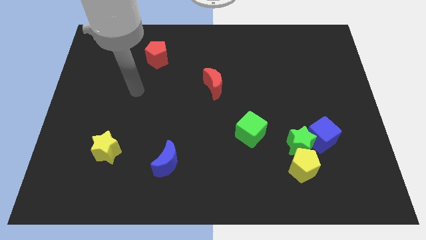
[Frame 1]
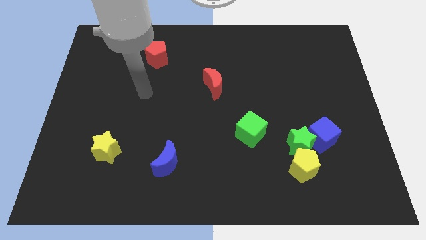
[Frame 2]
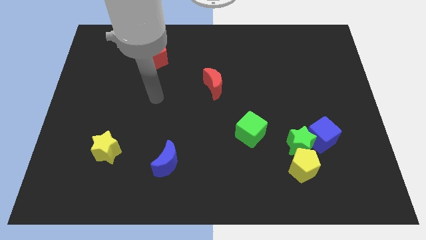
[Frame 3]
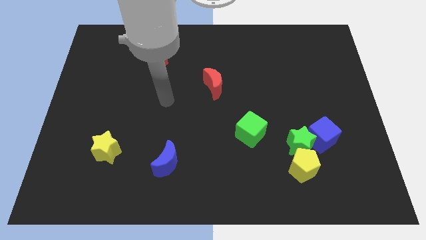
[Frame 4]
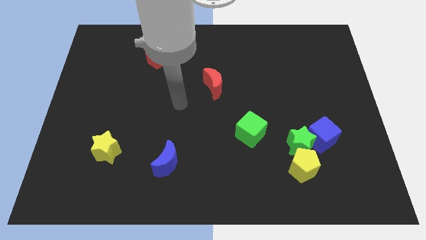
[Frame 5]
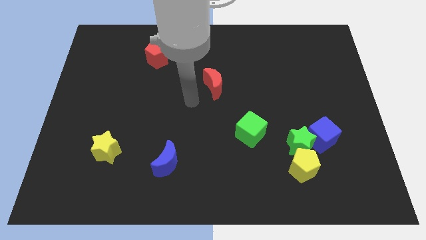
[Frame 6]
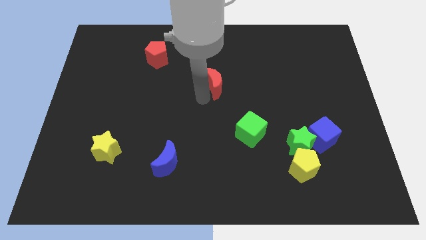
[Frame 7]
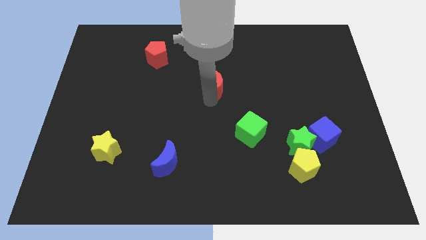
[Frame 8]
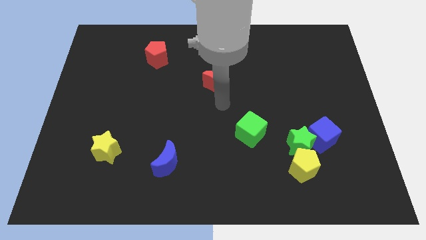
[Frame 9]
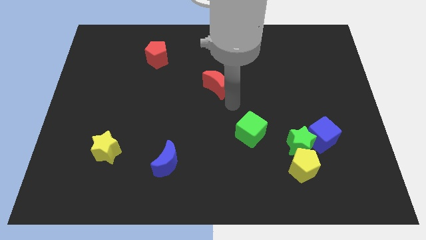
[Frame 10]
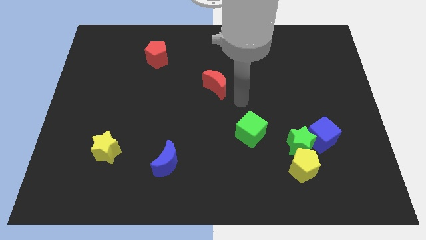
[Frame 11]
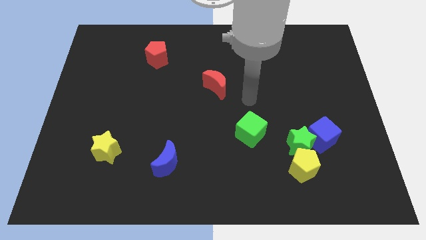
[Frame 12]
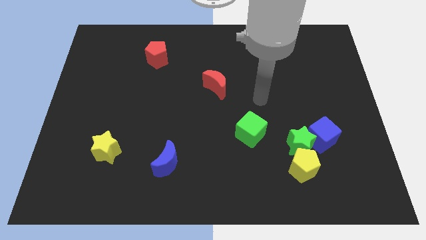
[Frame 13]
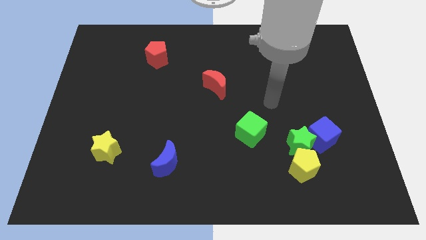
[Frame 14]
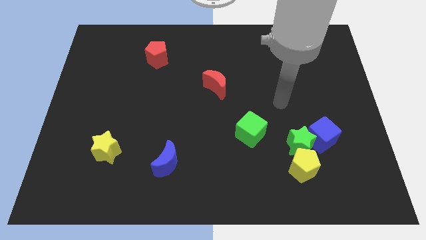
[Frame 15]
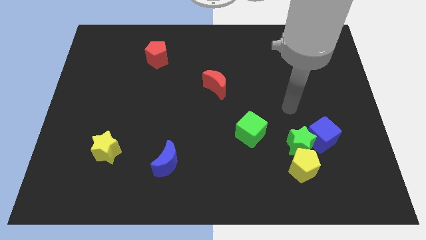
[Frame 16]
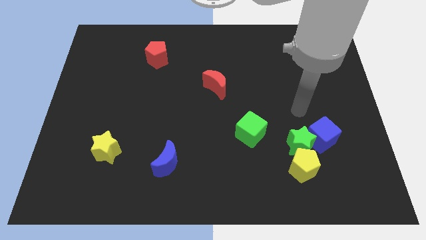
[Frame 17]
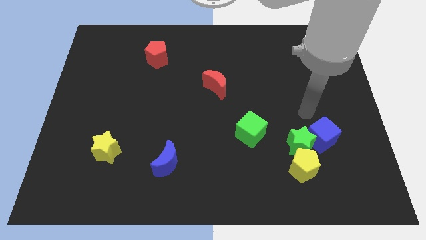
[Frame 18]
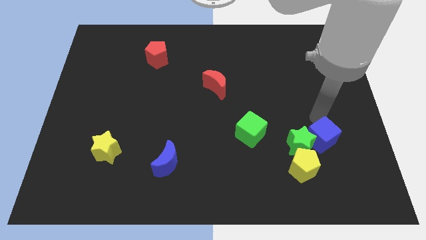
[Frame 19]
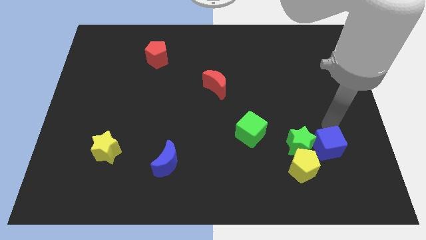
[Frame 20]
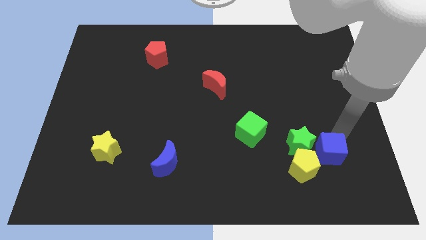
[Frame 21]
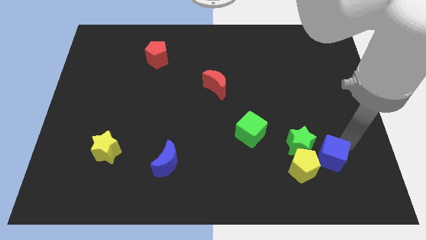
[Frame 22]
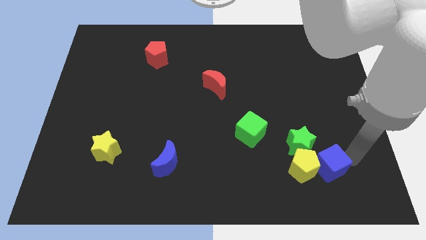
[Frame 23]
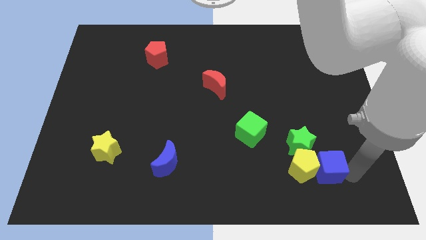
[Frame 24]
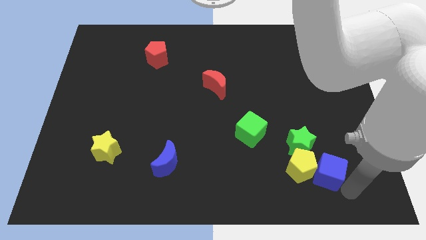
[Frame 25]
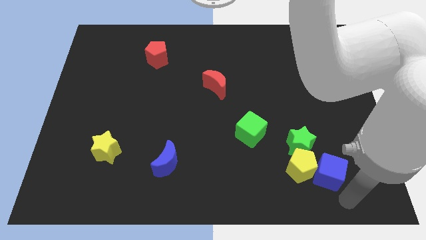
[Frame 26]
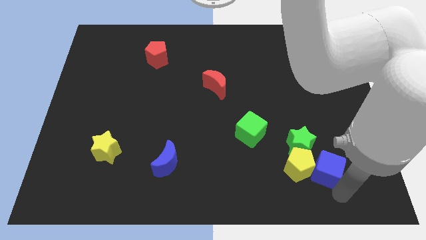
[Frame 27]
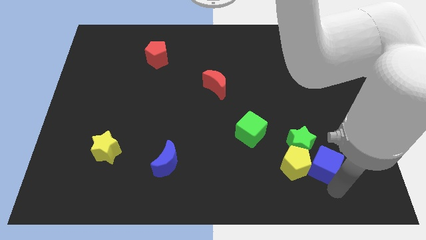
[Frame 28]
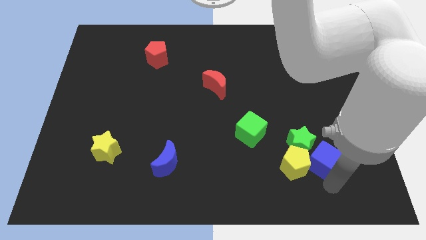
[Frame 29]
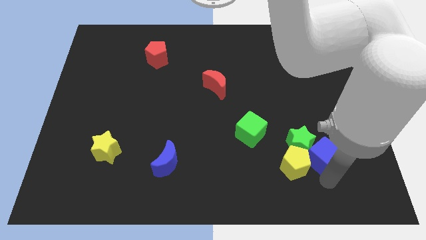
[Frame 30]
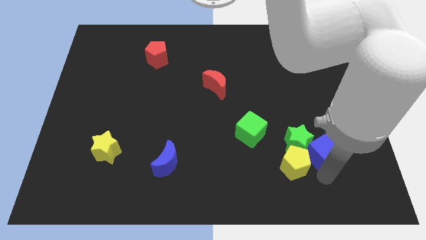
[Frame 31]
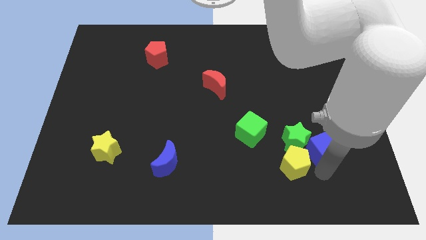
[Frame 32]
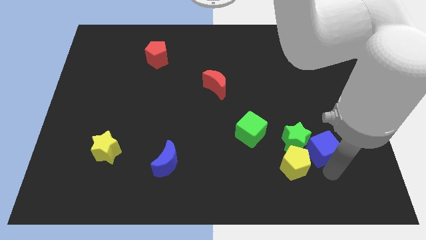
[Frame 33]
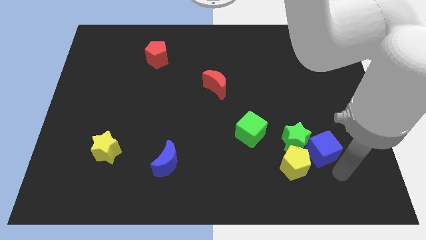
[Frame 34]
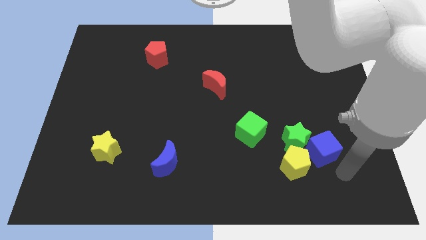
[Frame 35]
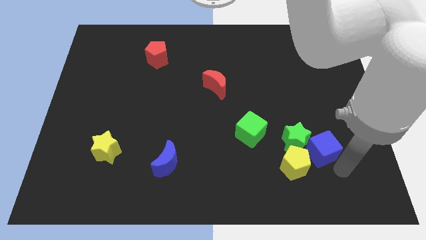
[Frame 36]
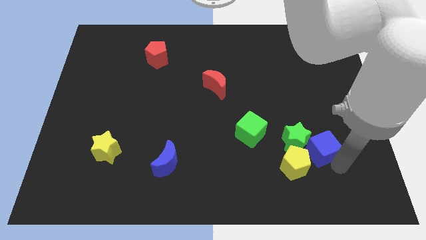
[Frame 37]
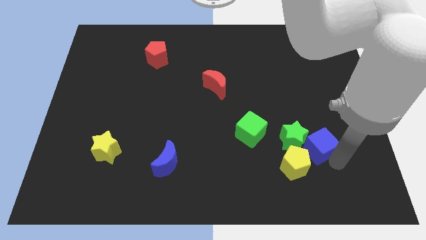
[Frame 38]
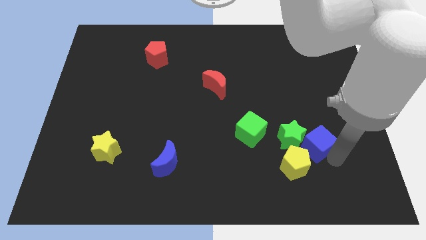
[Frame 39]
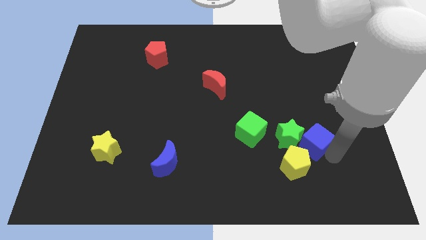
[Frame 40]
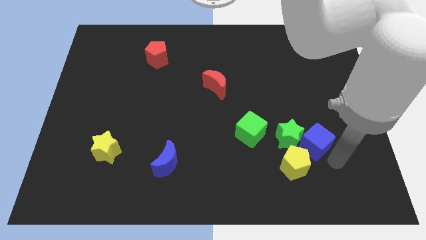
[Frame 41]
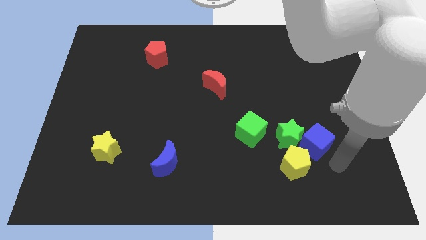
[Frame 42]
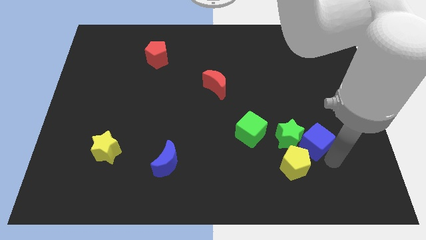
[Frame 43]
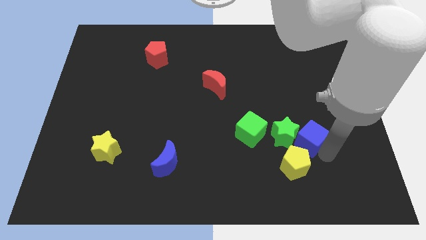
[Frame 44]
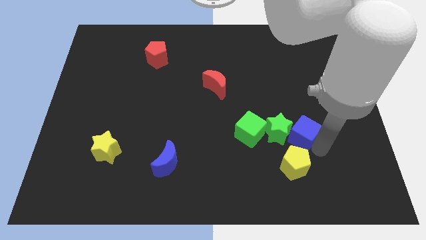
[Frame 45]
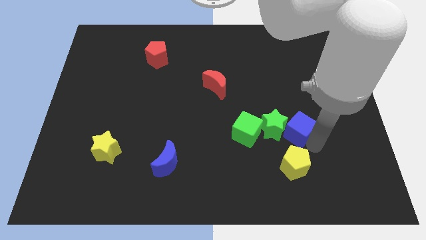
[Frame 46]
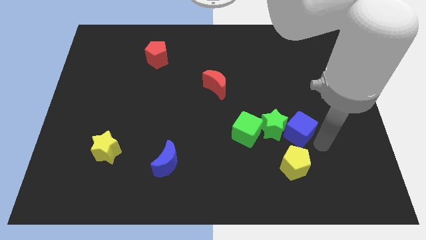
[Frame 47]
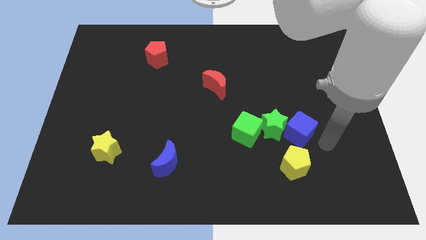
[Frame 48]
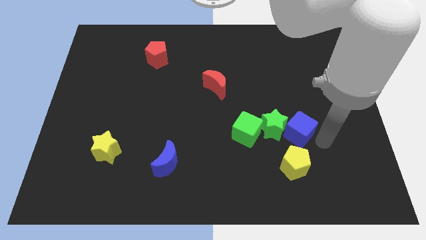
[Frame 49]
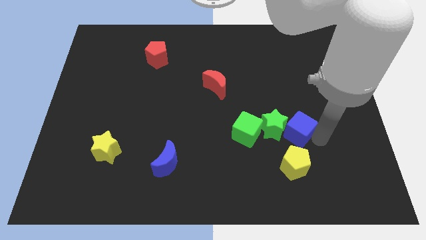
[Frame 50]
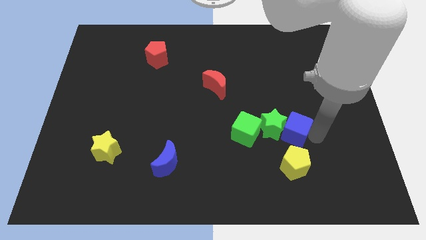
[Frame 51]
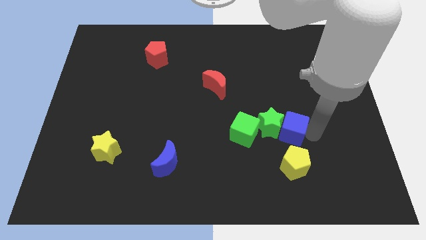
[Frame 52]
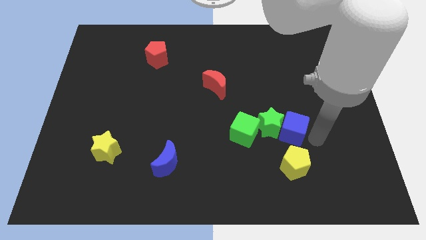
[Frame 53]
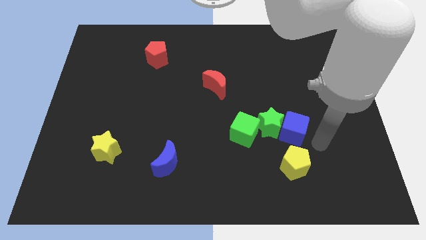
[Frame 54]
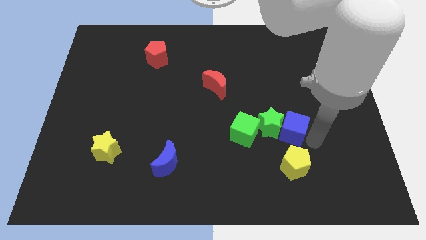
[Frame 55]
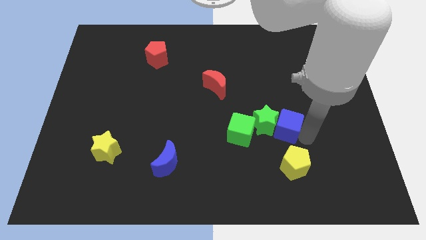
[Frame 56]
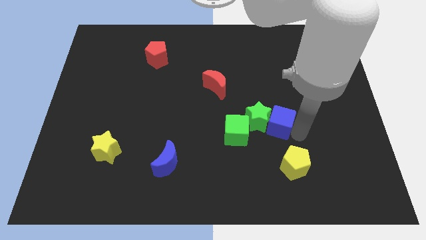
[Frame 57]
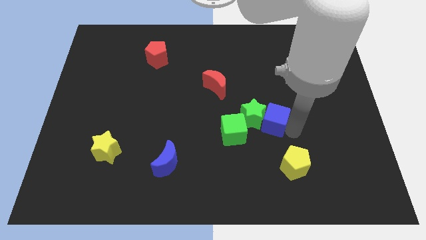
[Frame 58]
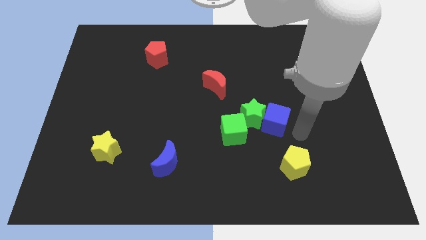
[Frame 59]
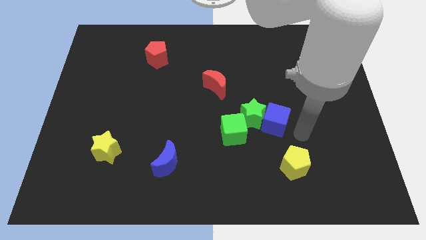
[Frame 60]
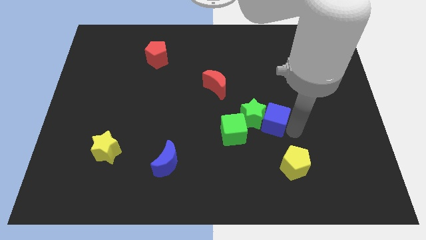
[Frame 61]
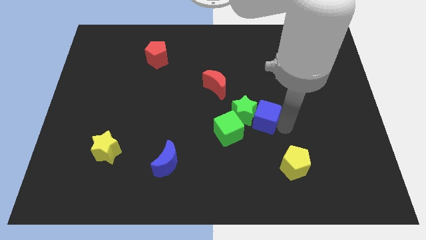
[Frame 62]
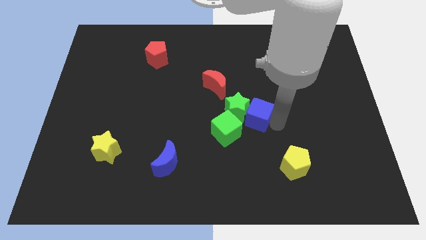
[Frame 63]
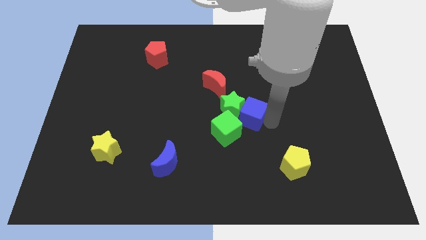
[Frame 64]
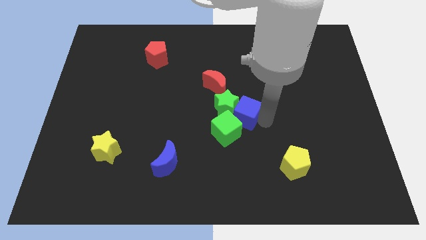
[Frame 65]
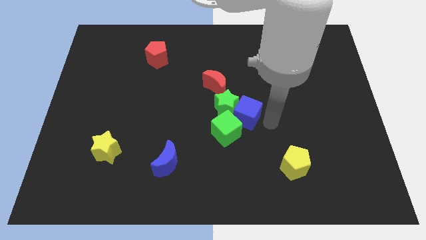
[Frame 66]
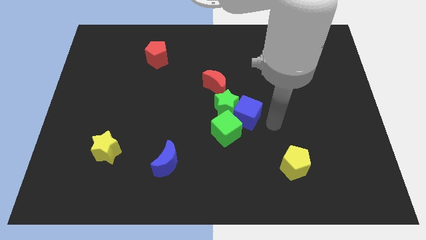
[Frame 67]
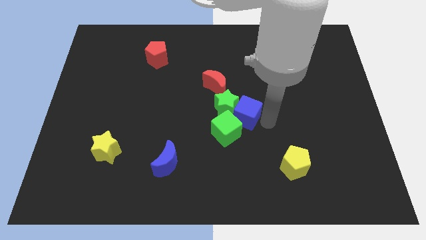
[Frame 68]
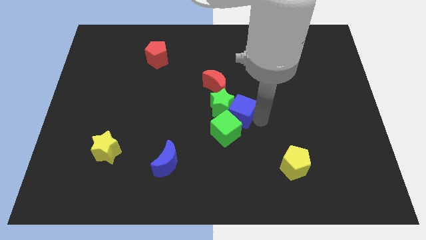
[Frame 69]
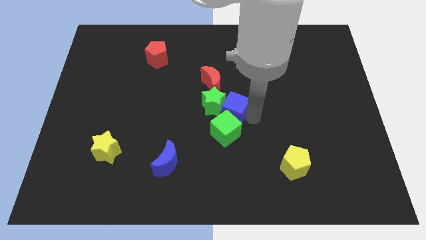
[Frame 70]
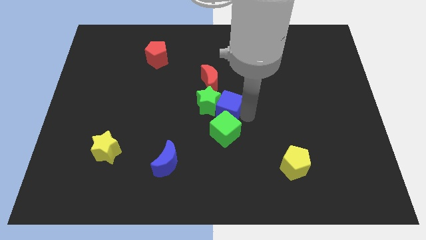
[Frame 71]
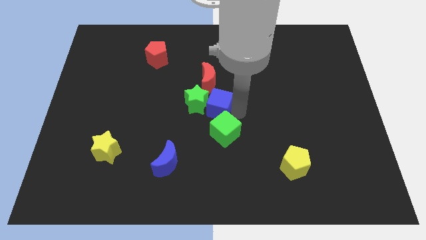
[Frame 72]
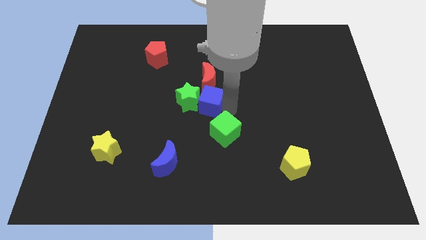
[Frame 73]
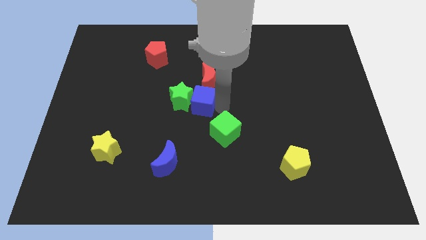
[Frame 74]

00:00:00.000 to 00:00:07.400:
put the blue cube to the bottom left of the red moon
